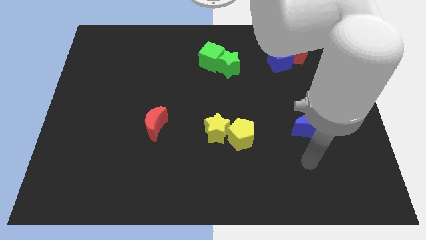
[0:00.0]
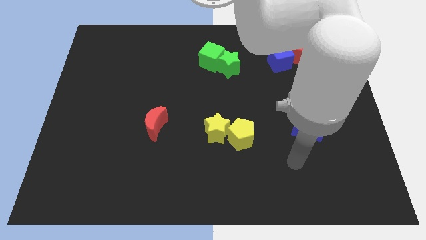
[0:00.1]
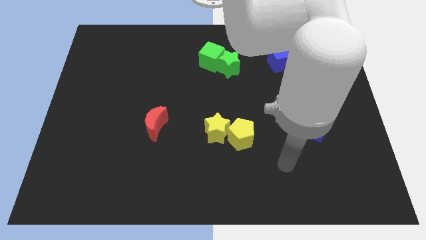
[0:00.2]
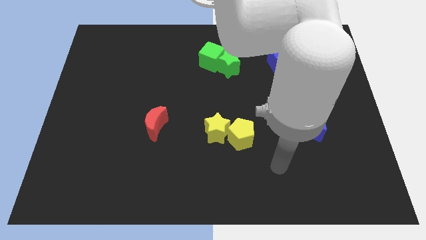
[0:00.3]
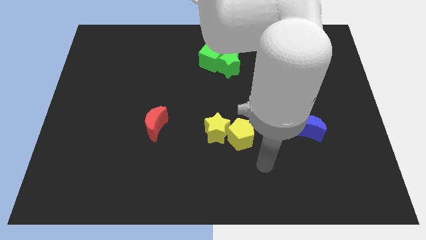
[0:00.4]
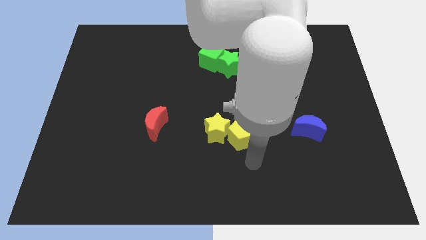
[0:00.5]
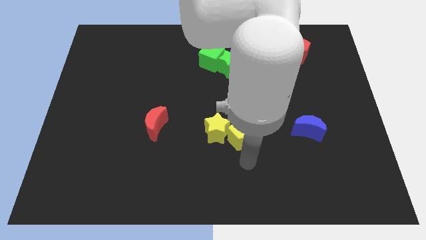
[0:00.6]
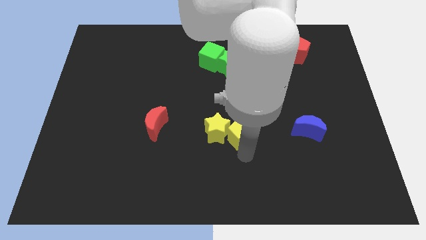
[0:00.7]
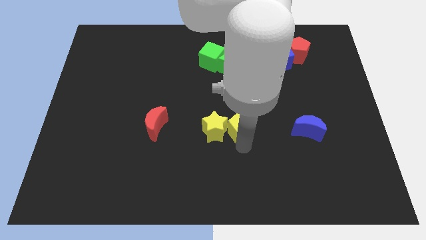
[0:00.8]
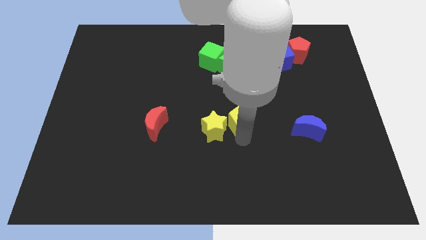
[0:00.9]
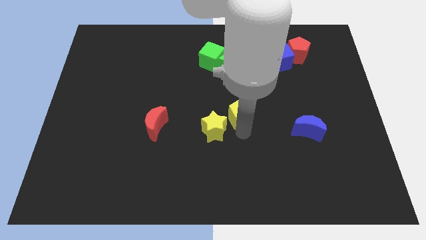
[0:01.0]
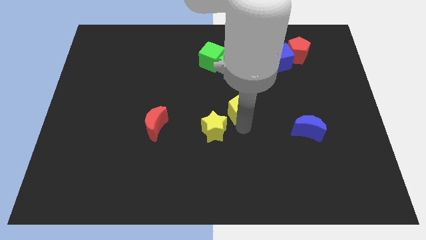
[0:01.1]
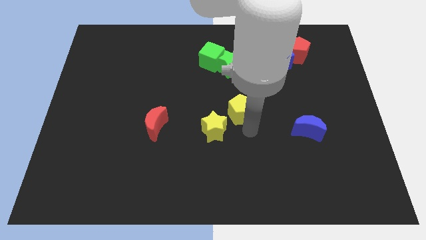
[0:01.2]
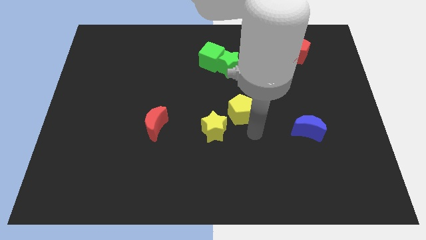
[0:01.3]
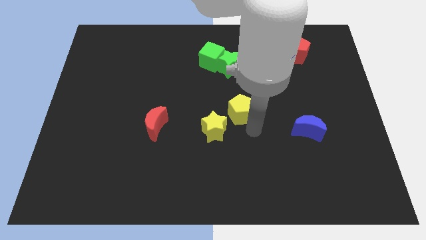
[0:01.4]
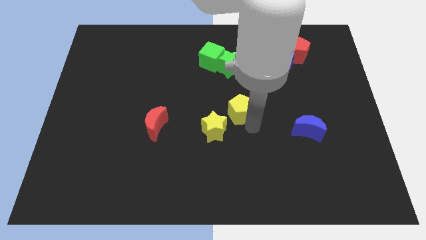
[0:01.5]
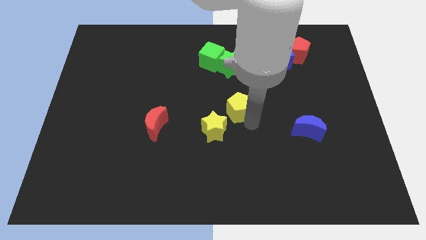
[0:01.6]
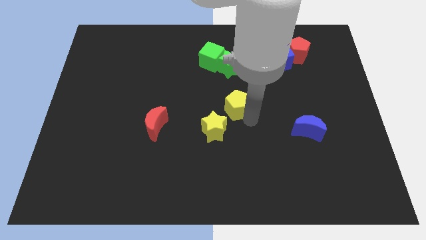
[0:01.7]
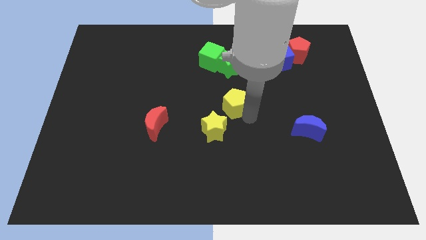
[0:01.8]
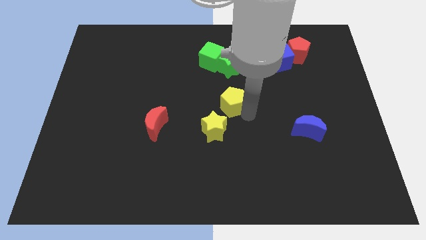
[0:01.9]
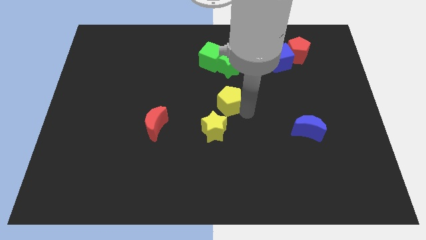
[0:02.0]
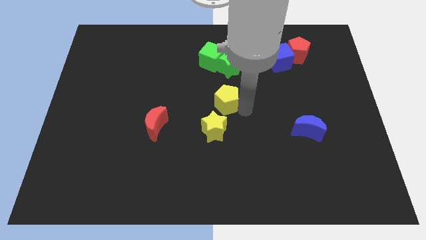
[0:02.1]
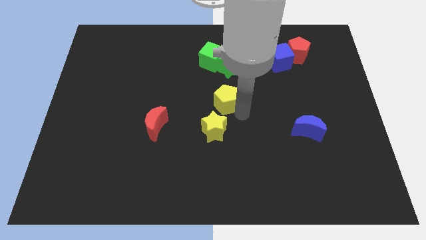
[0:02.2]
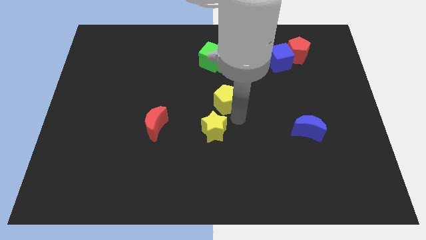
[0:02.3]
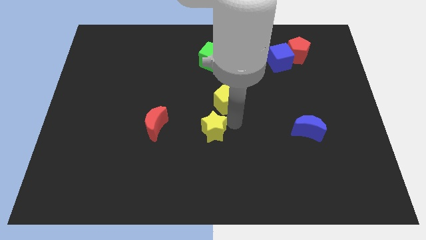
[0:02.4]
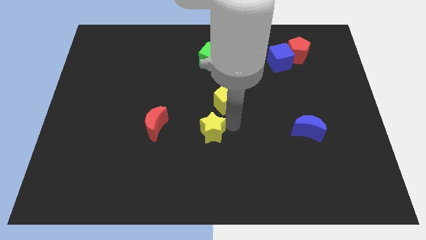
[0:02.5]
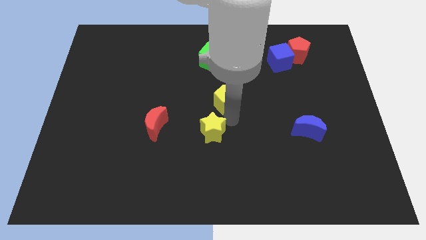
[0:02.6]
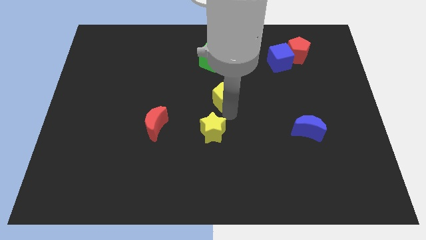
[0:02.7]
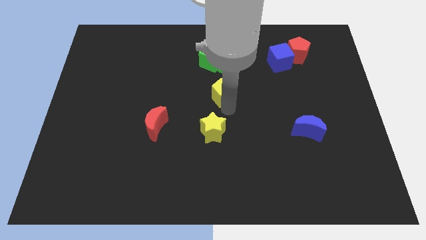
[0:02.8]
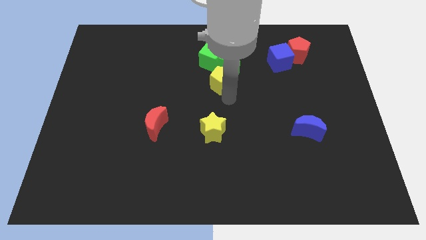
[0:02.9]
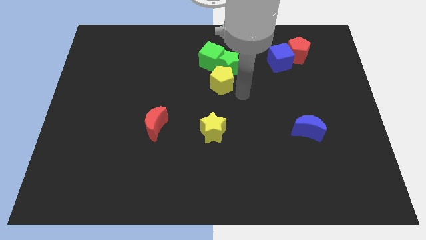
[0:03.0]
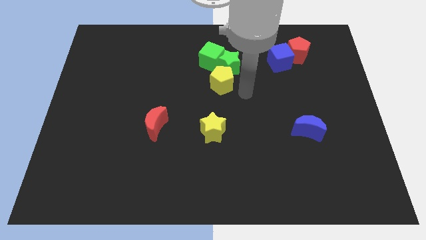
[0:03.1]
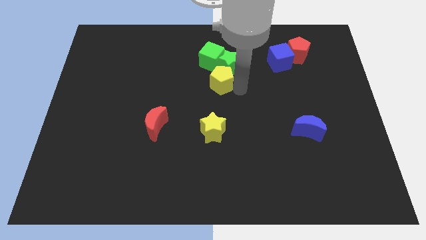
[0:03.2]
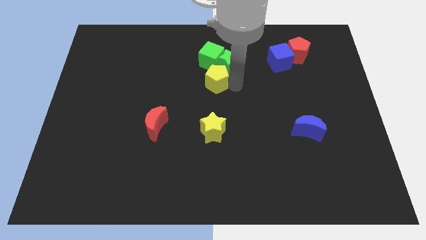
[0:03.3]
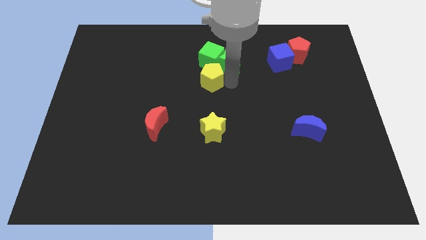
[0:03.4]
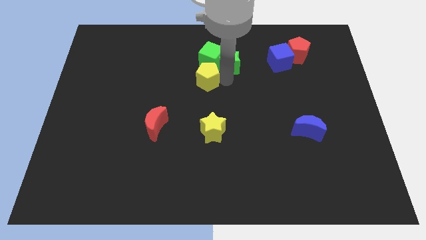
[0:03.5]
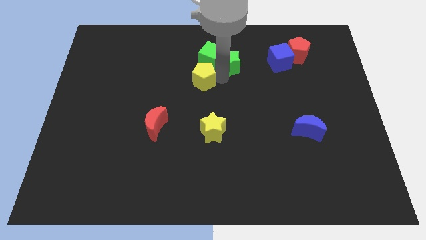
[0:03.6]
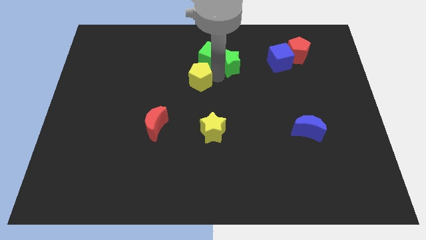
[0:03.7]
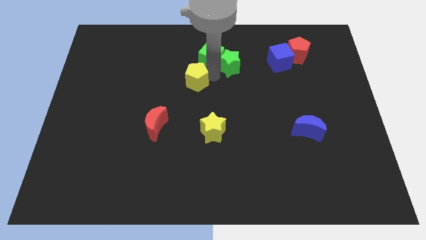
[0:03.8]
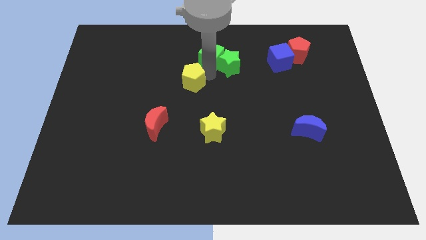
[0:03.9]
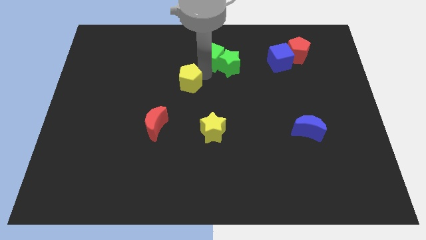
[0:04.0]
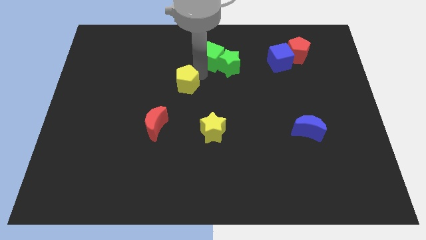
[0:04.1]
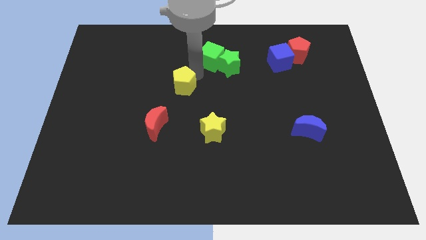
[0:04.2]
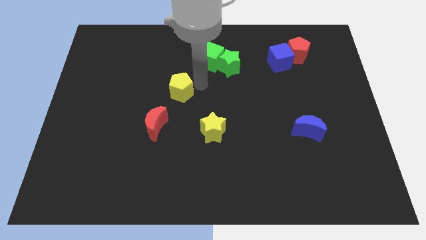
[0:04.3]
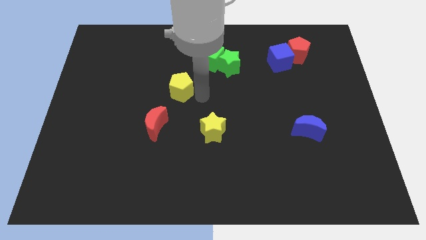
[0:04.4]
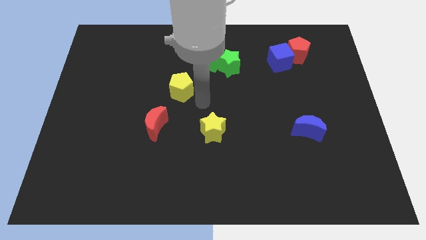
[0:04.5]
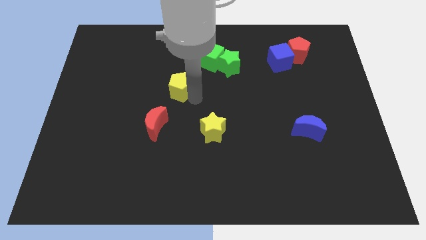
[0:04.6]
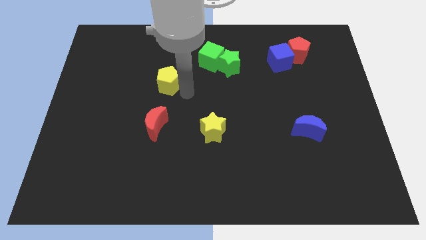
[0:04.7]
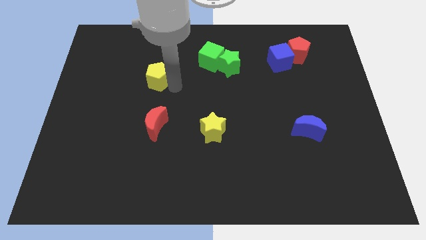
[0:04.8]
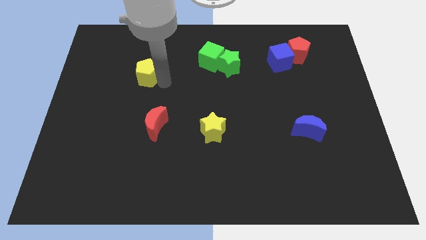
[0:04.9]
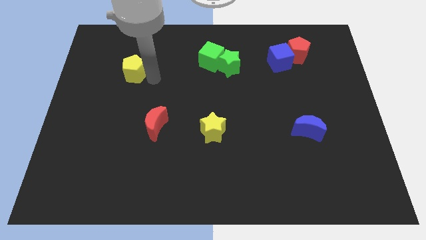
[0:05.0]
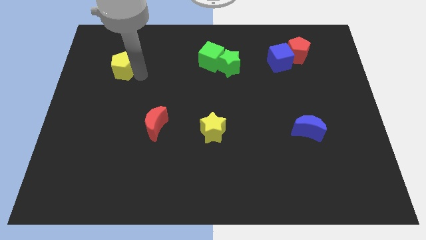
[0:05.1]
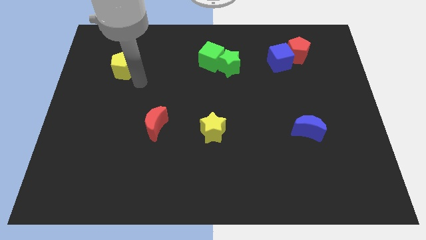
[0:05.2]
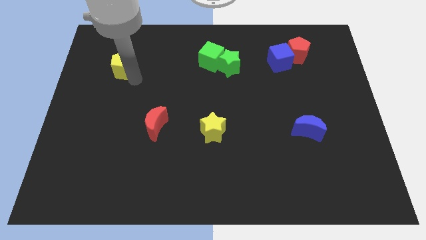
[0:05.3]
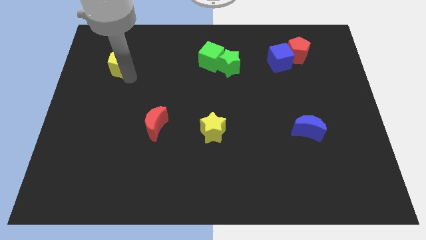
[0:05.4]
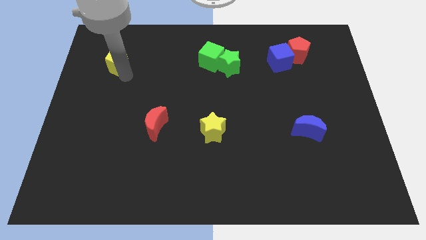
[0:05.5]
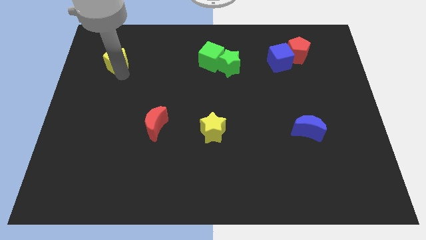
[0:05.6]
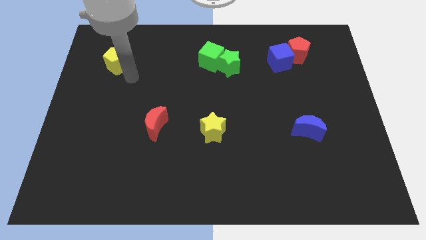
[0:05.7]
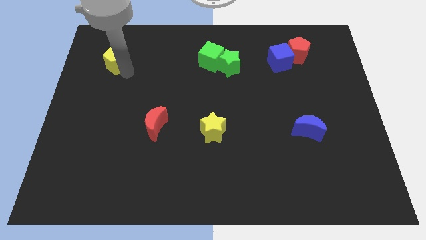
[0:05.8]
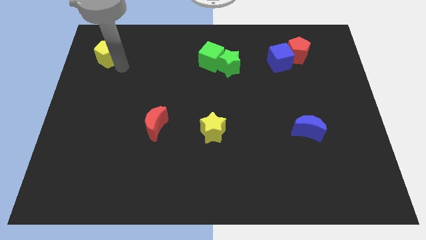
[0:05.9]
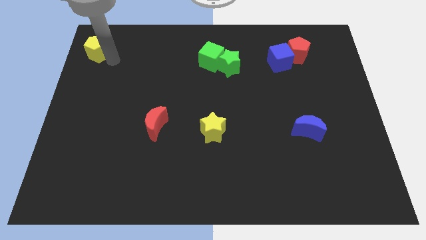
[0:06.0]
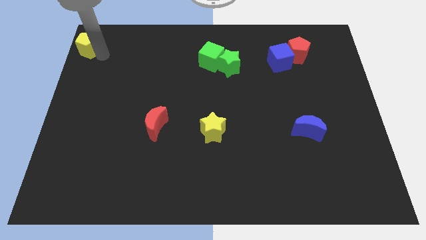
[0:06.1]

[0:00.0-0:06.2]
push the yellow pentagon to the upper left corner
